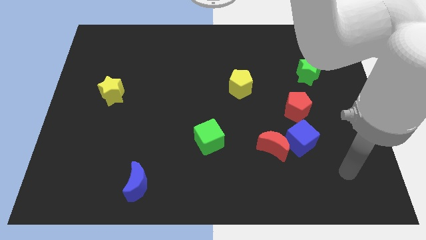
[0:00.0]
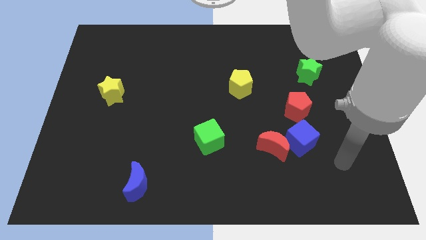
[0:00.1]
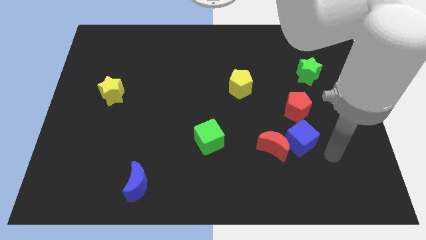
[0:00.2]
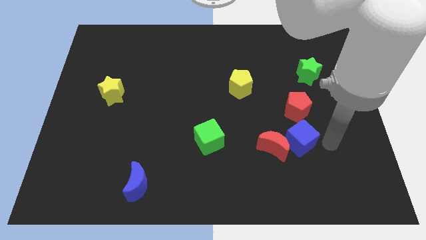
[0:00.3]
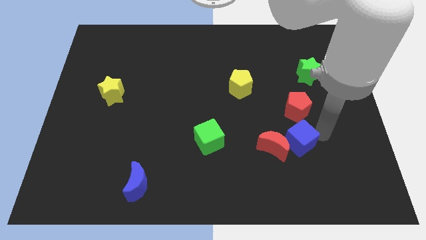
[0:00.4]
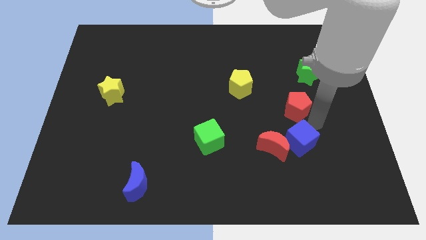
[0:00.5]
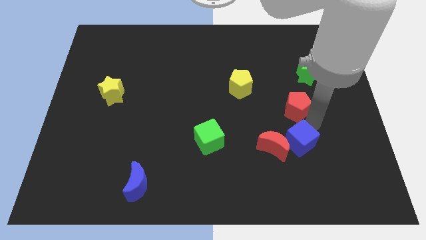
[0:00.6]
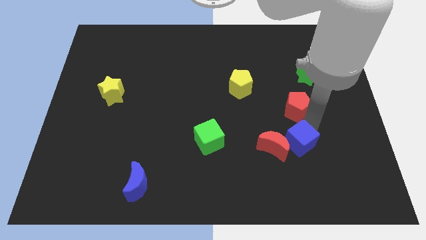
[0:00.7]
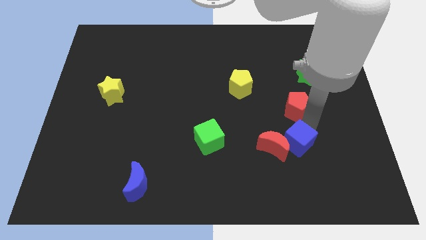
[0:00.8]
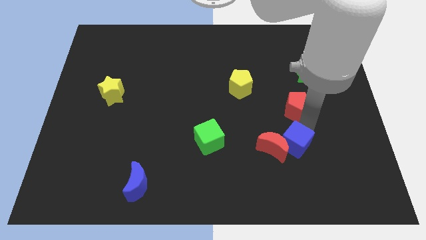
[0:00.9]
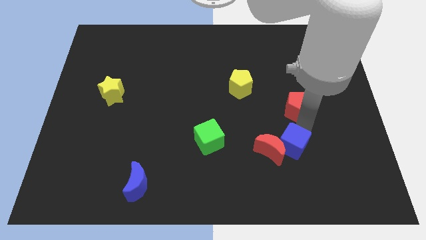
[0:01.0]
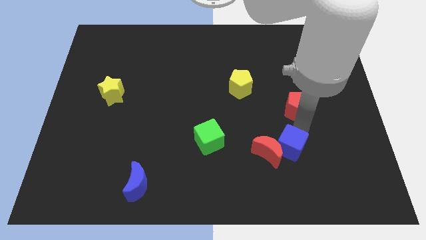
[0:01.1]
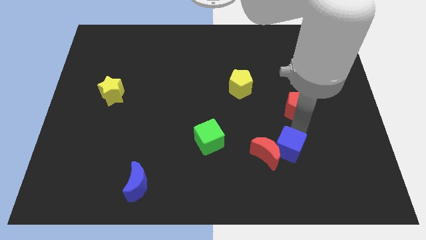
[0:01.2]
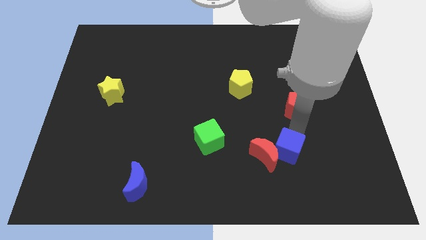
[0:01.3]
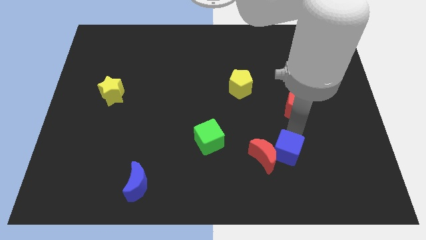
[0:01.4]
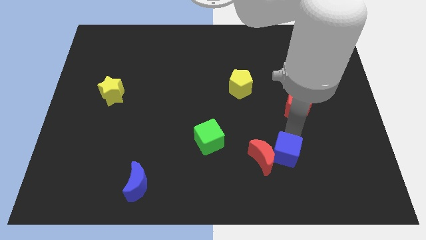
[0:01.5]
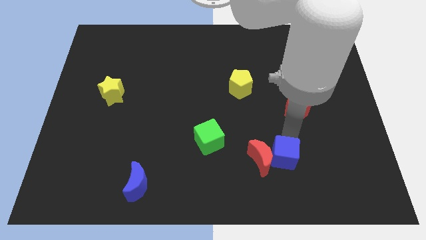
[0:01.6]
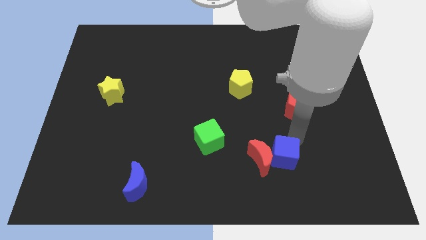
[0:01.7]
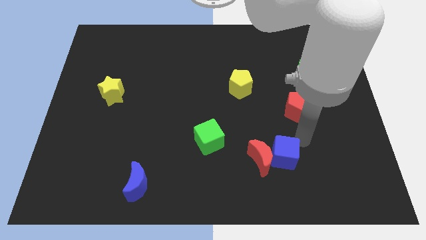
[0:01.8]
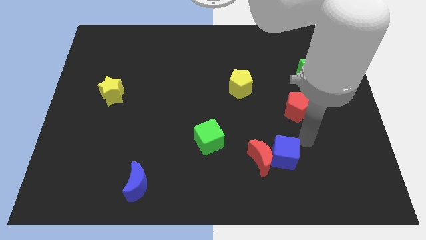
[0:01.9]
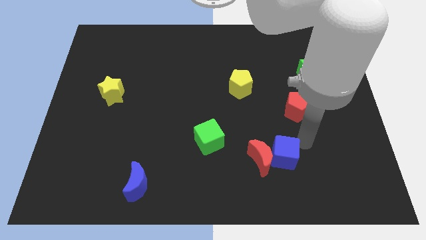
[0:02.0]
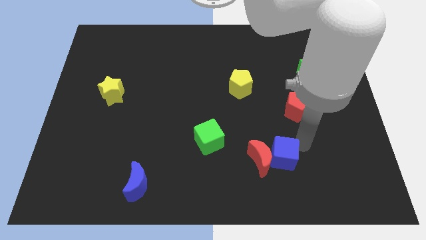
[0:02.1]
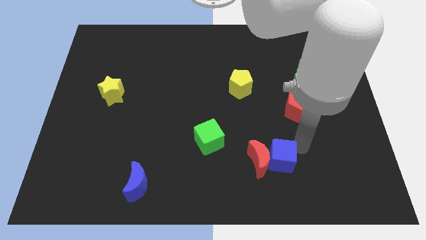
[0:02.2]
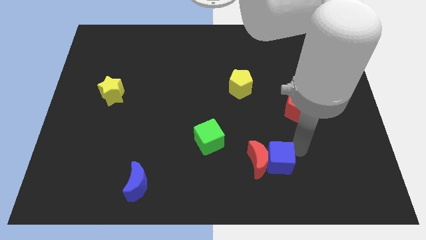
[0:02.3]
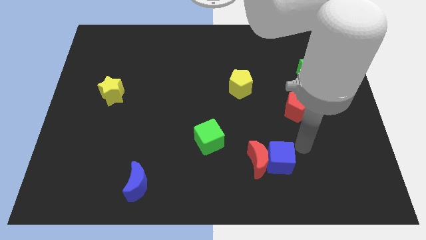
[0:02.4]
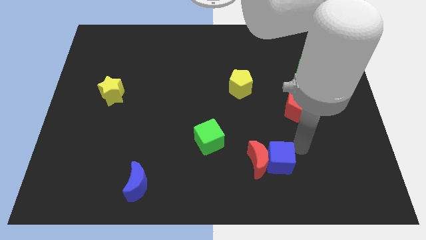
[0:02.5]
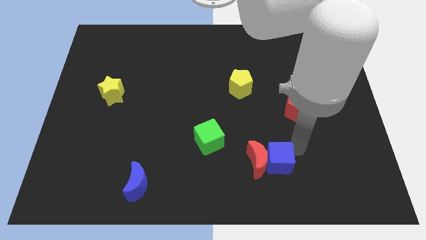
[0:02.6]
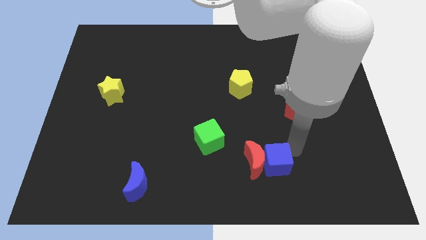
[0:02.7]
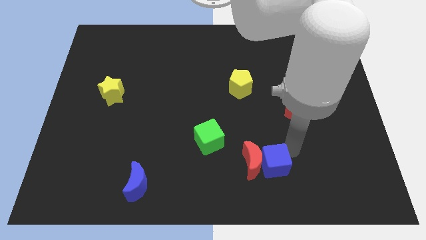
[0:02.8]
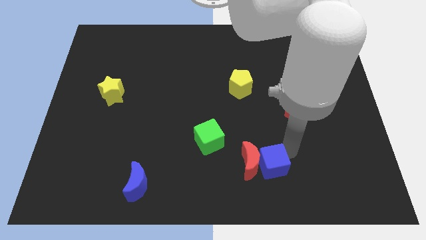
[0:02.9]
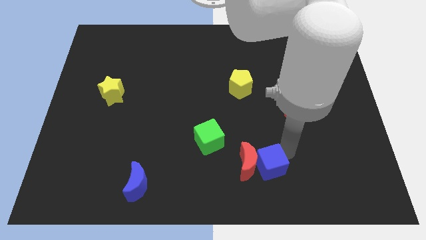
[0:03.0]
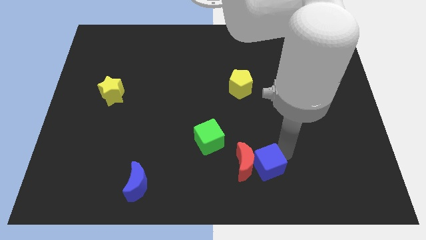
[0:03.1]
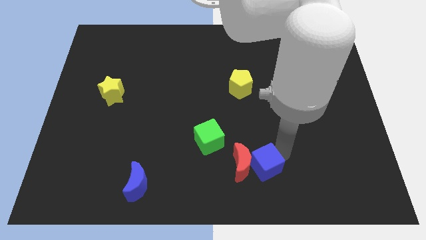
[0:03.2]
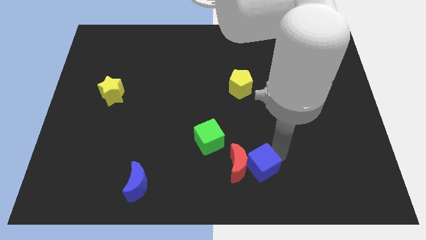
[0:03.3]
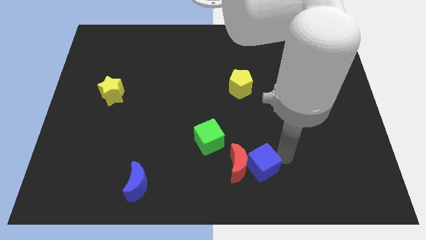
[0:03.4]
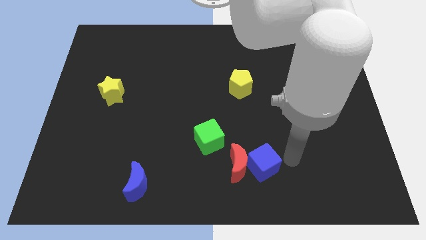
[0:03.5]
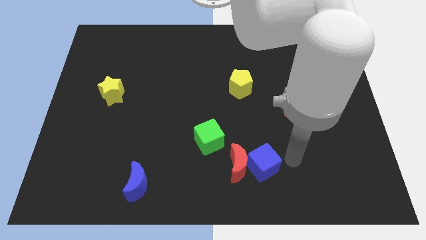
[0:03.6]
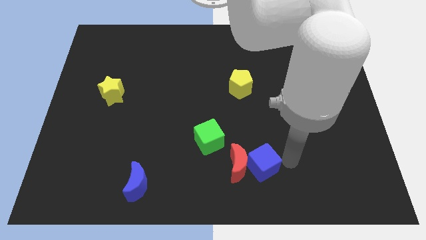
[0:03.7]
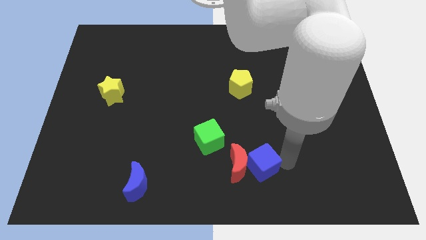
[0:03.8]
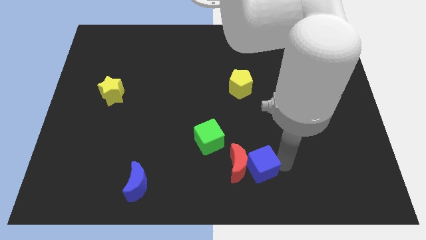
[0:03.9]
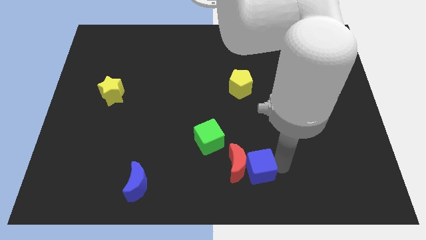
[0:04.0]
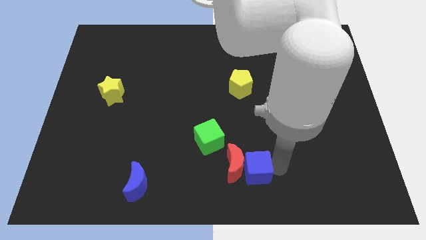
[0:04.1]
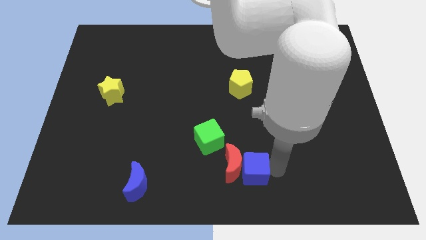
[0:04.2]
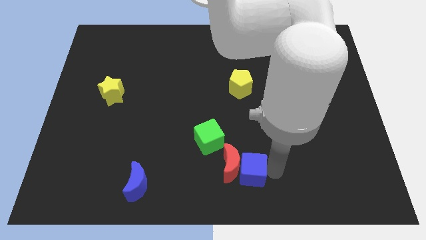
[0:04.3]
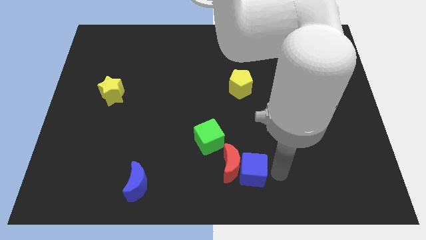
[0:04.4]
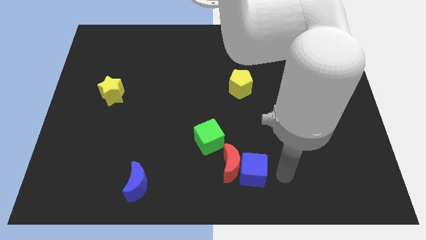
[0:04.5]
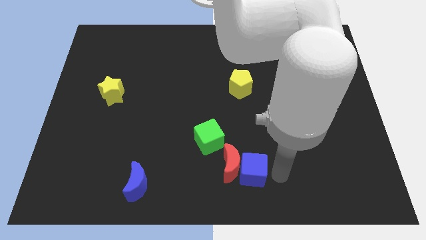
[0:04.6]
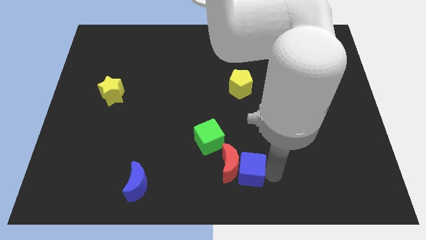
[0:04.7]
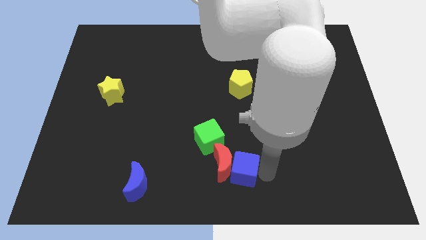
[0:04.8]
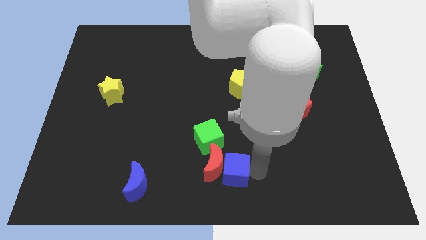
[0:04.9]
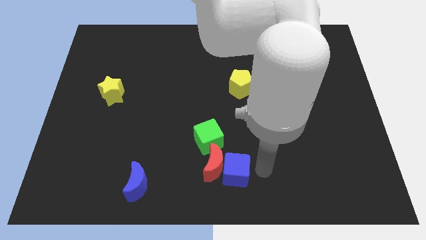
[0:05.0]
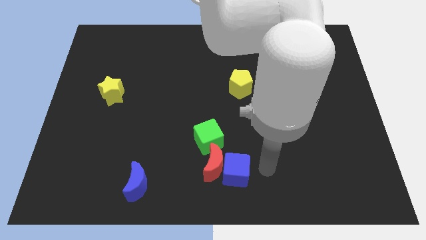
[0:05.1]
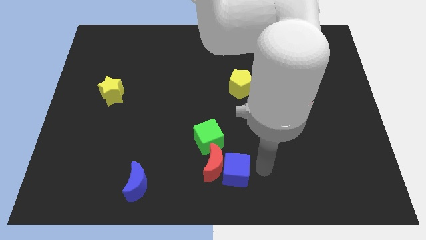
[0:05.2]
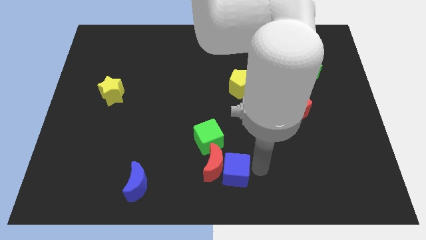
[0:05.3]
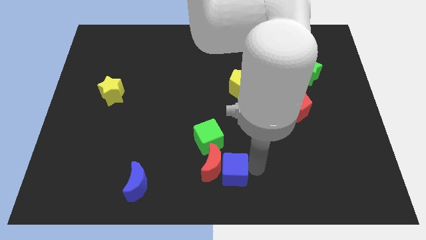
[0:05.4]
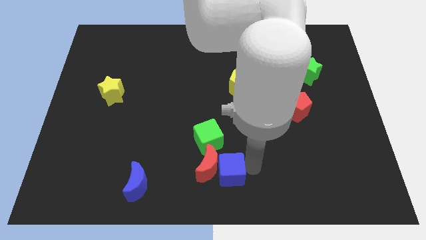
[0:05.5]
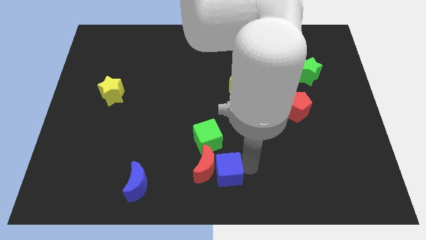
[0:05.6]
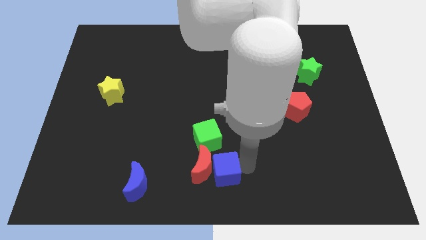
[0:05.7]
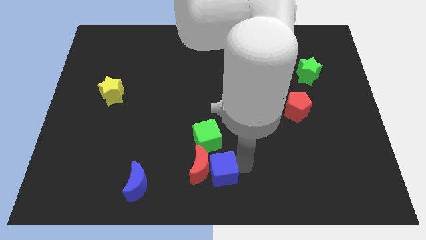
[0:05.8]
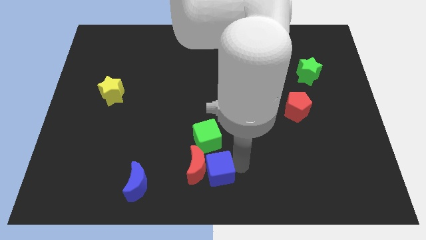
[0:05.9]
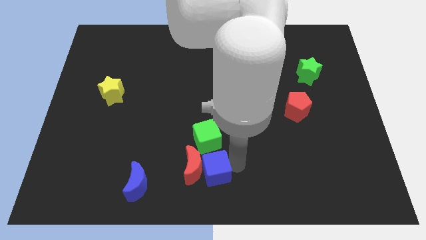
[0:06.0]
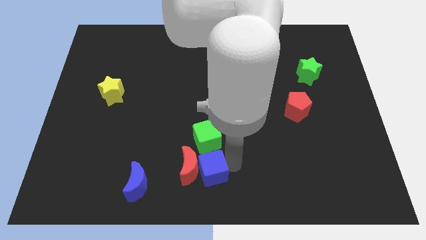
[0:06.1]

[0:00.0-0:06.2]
put the blue cube to the right of the blue moon

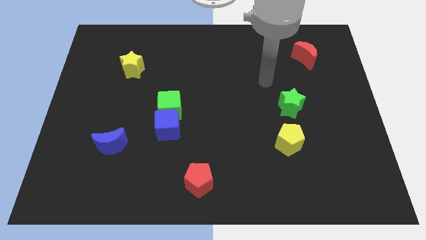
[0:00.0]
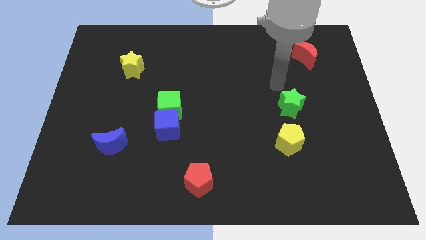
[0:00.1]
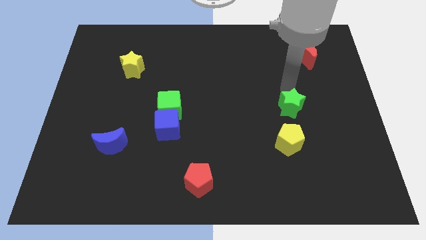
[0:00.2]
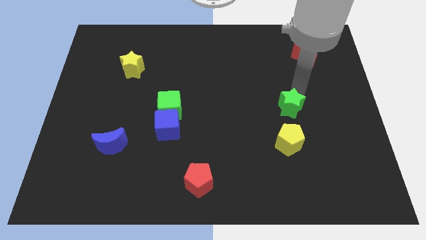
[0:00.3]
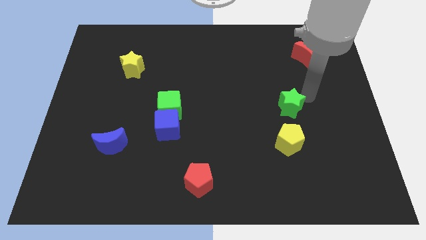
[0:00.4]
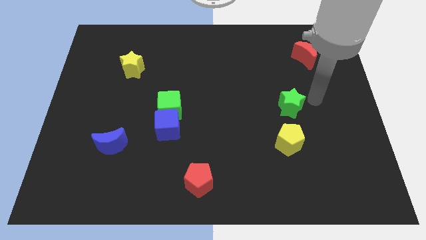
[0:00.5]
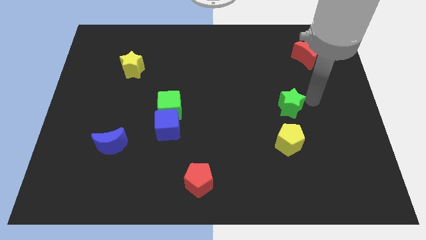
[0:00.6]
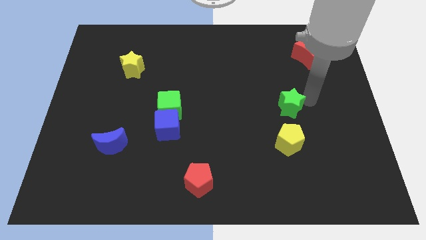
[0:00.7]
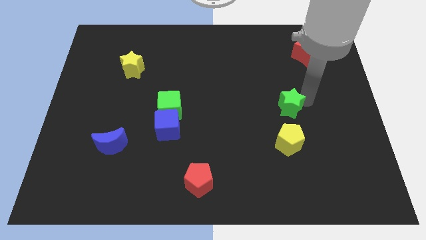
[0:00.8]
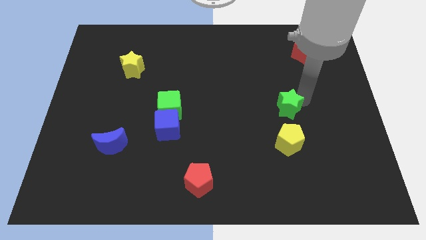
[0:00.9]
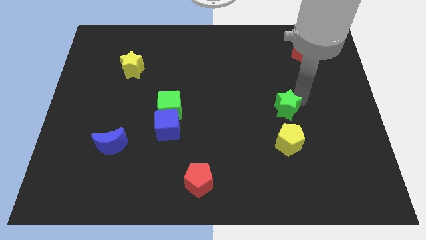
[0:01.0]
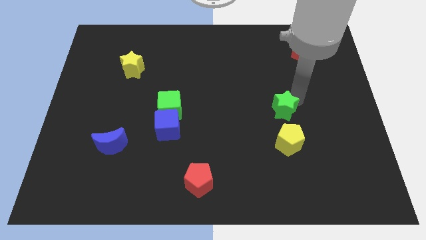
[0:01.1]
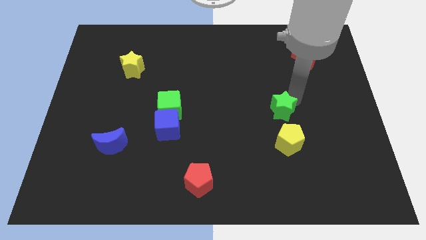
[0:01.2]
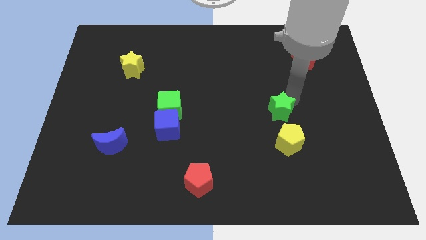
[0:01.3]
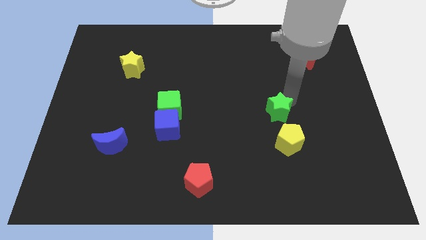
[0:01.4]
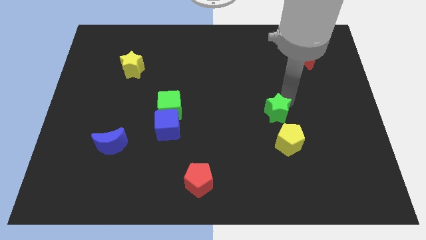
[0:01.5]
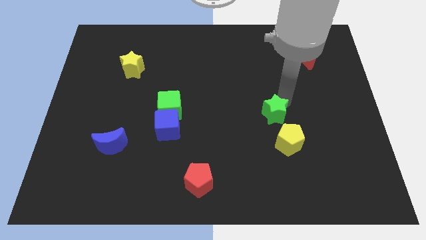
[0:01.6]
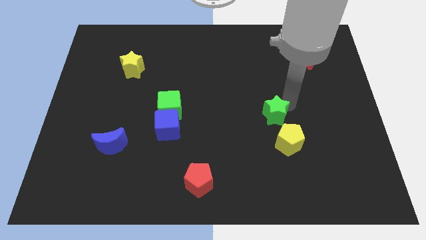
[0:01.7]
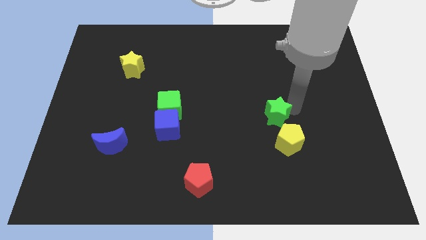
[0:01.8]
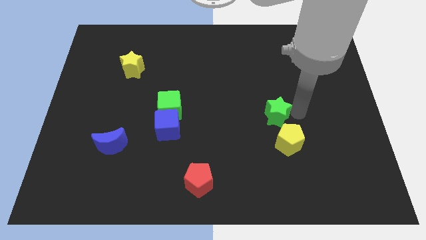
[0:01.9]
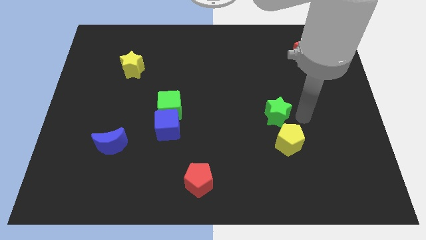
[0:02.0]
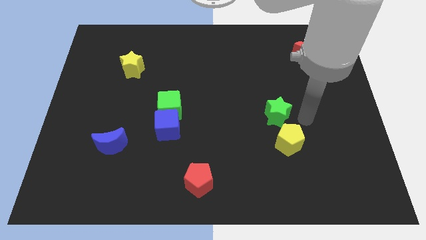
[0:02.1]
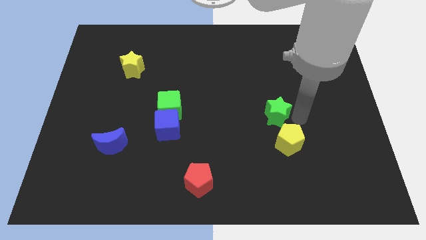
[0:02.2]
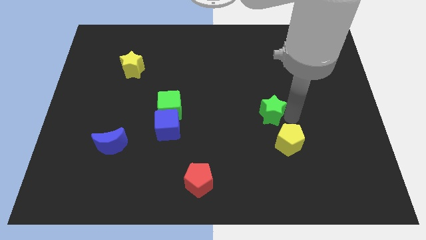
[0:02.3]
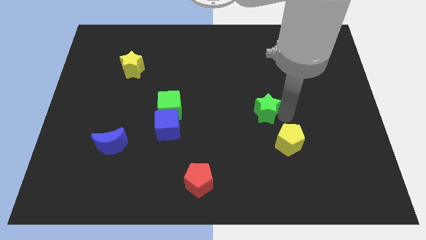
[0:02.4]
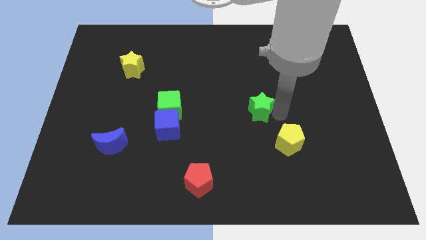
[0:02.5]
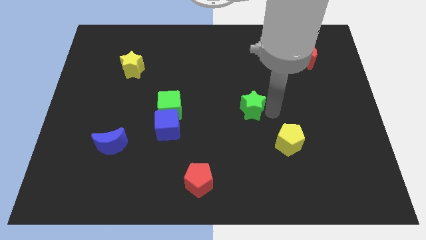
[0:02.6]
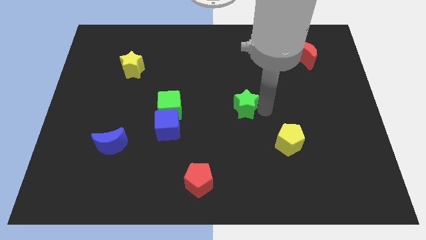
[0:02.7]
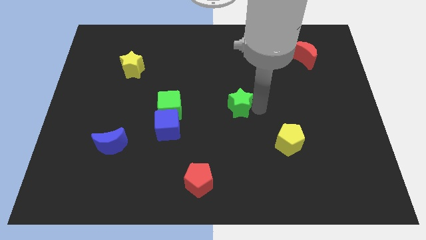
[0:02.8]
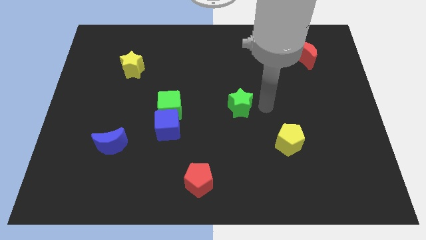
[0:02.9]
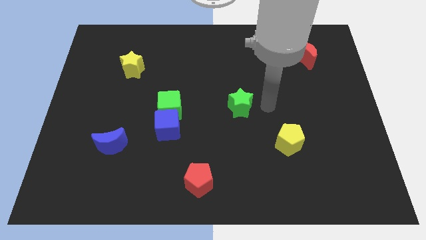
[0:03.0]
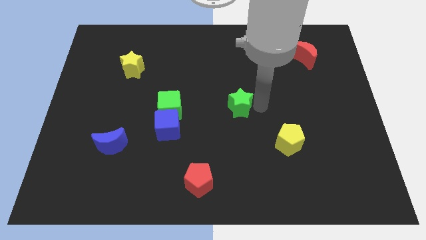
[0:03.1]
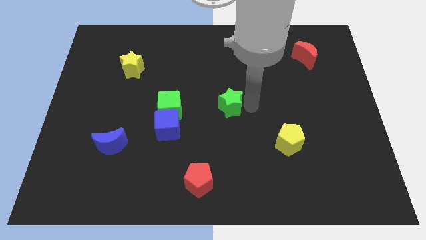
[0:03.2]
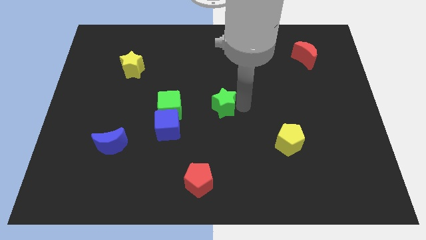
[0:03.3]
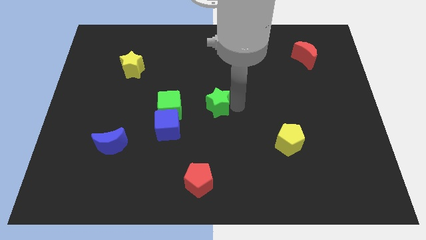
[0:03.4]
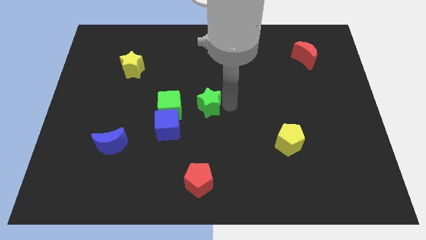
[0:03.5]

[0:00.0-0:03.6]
slide the green star to the top right of the blue cube
